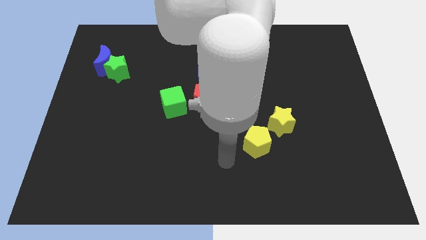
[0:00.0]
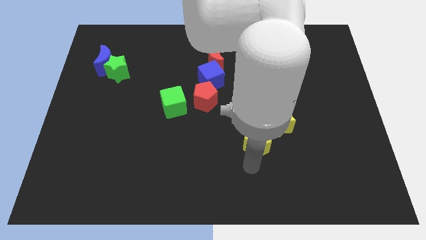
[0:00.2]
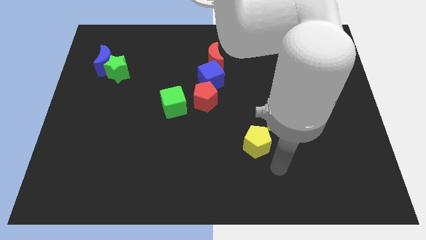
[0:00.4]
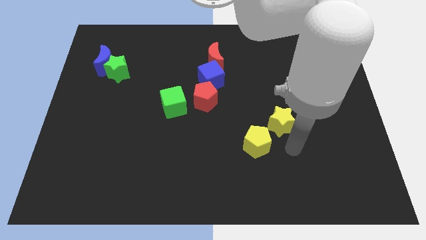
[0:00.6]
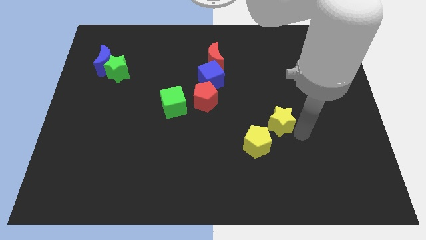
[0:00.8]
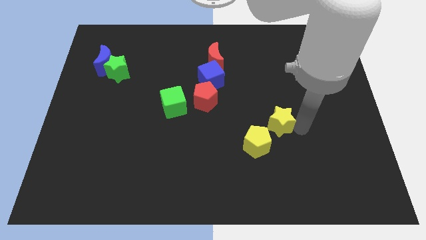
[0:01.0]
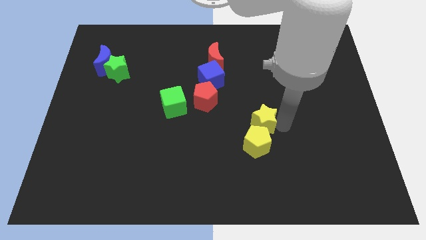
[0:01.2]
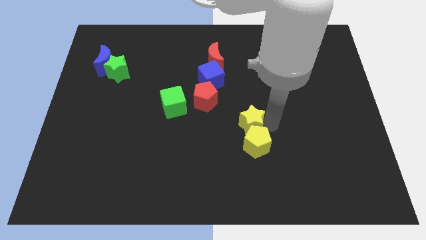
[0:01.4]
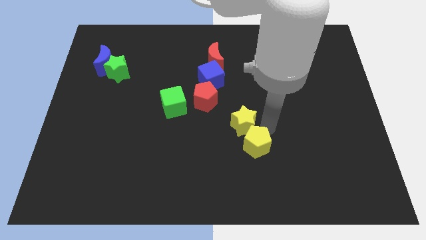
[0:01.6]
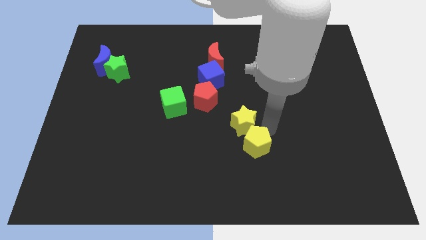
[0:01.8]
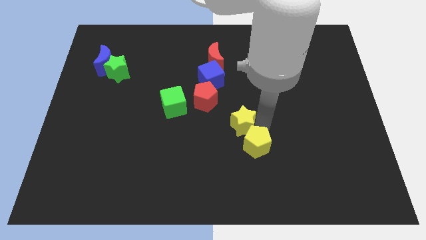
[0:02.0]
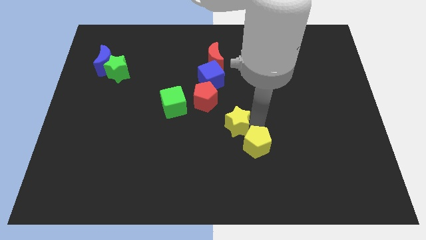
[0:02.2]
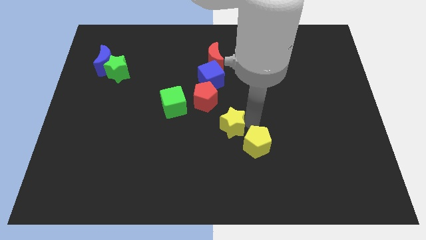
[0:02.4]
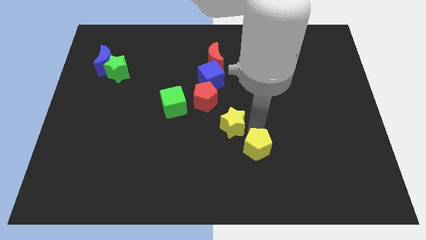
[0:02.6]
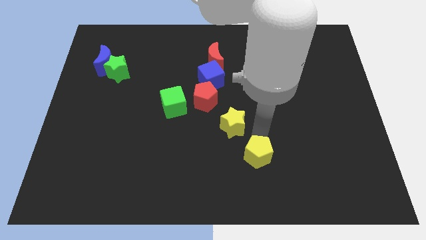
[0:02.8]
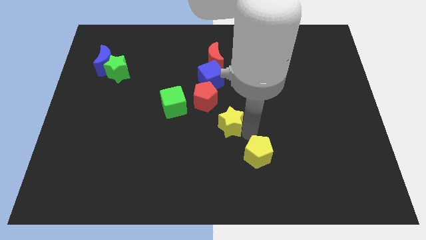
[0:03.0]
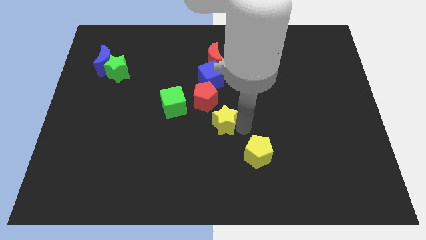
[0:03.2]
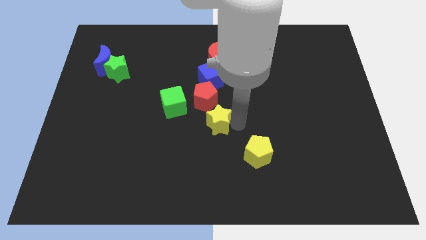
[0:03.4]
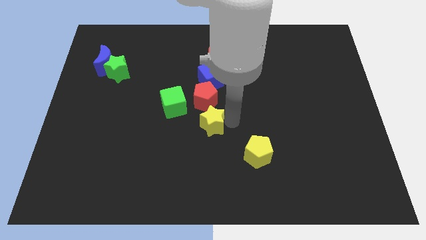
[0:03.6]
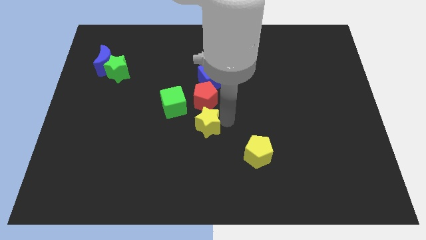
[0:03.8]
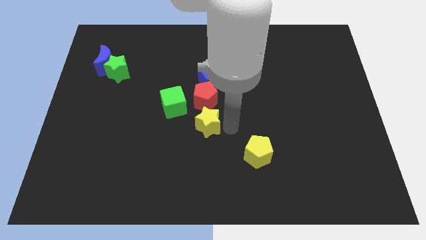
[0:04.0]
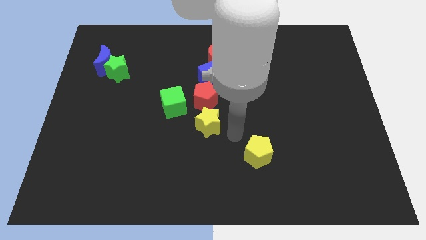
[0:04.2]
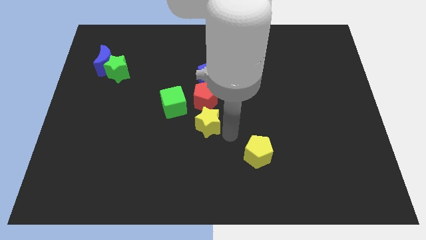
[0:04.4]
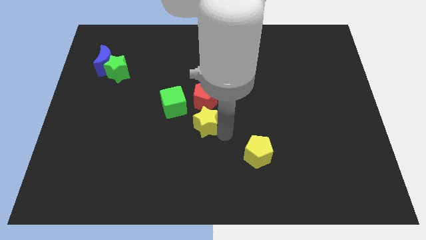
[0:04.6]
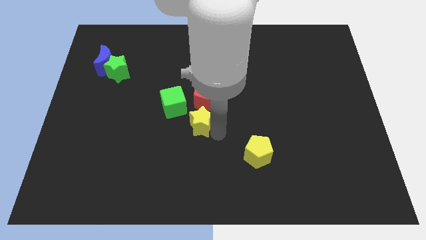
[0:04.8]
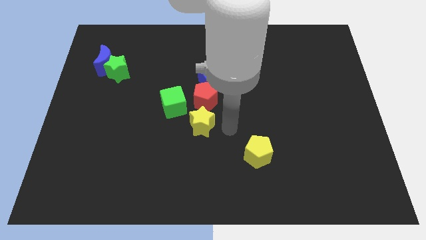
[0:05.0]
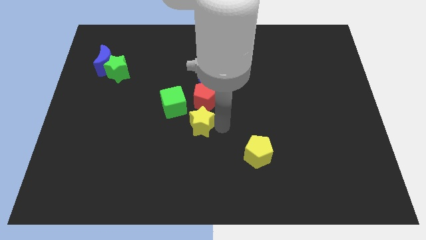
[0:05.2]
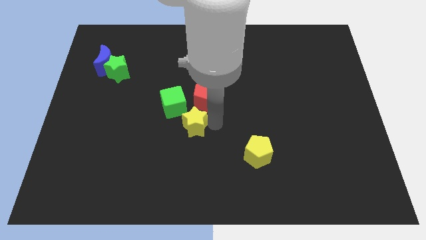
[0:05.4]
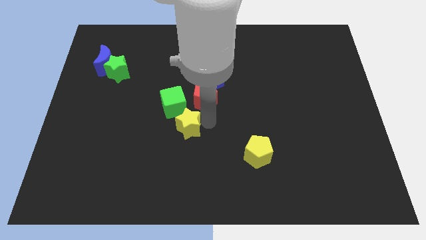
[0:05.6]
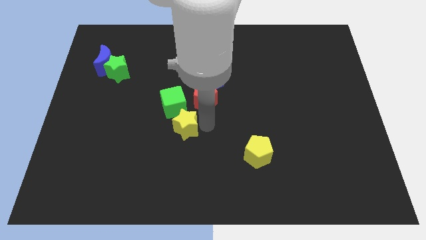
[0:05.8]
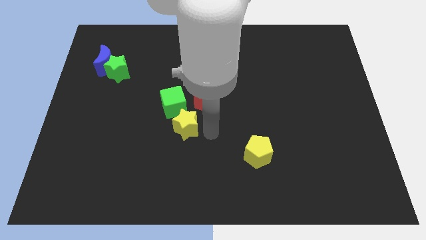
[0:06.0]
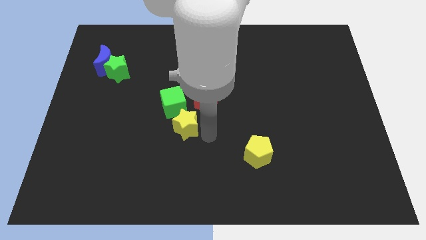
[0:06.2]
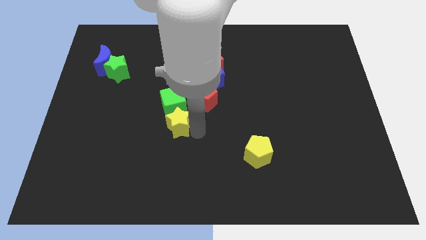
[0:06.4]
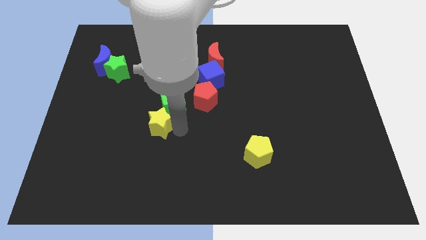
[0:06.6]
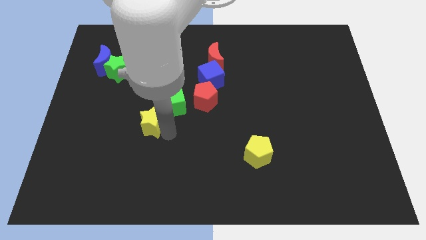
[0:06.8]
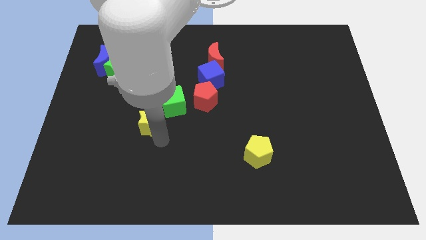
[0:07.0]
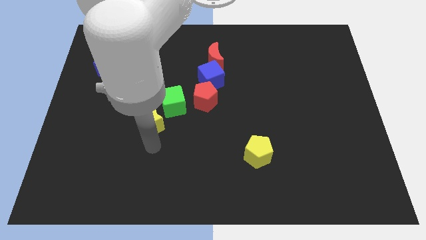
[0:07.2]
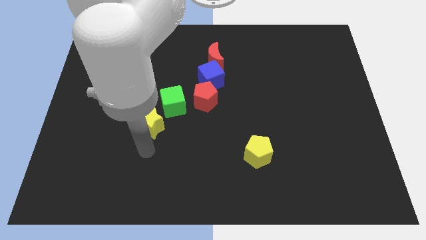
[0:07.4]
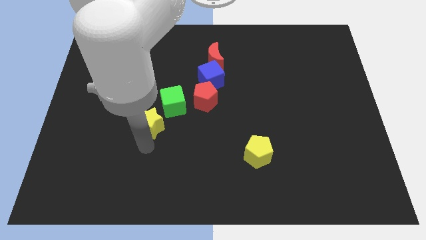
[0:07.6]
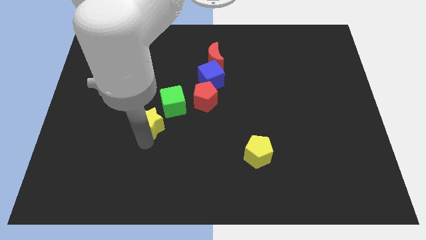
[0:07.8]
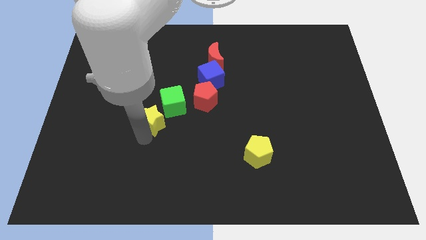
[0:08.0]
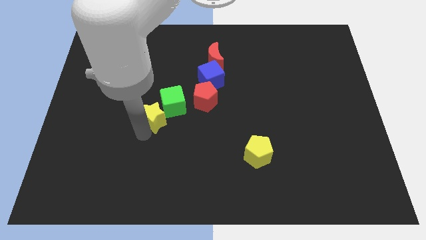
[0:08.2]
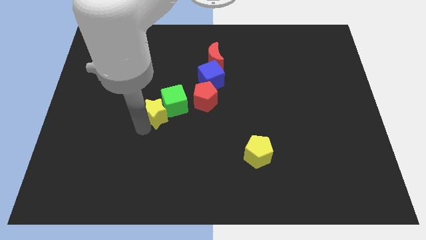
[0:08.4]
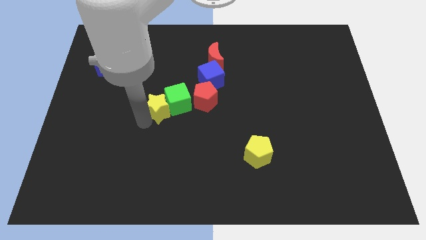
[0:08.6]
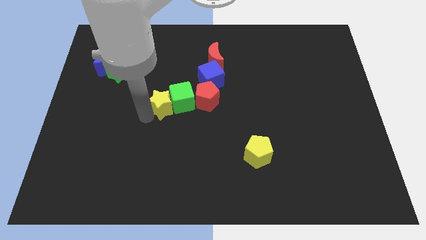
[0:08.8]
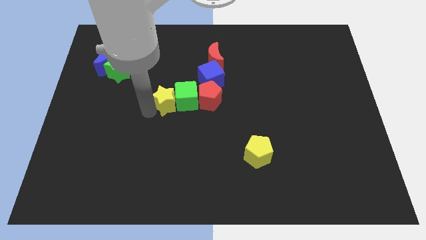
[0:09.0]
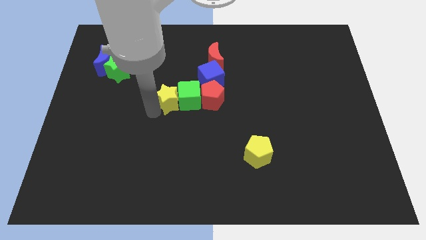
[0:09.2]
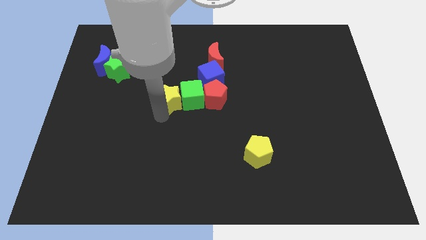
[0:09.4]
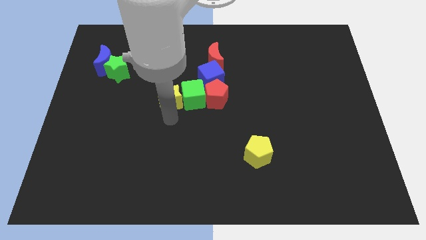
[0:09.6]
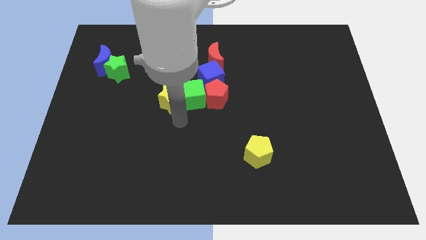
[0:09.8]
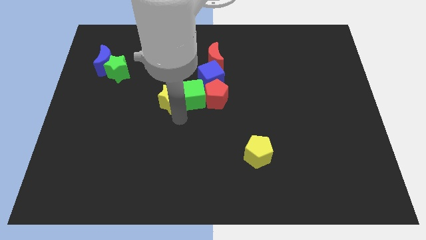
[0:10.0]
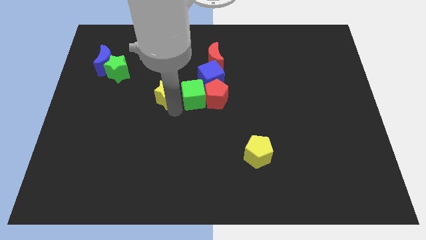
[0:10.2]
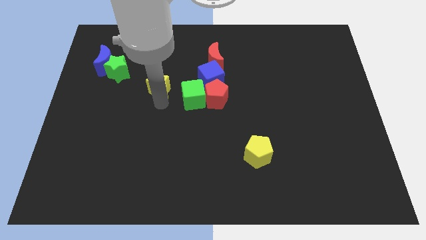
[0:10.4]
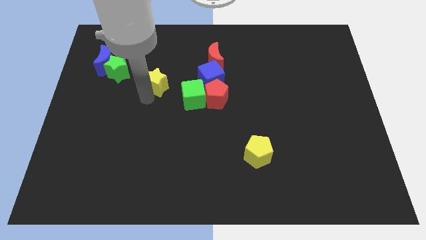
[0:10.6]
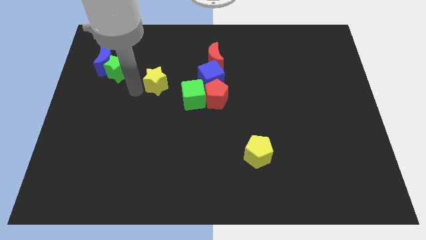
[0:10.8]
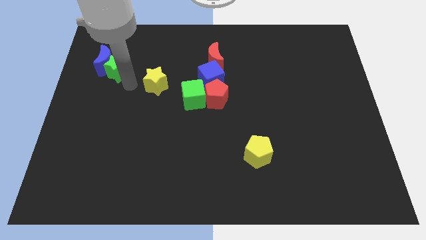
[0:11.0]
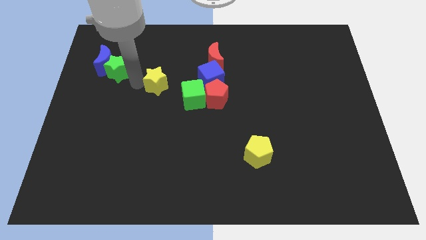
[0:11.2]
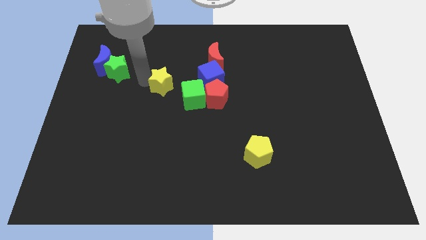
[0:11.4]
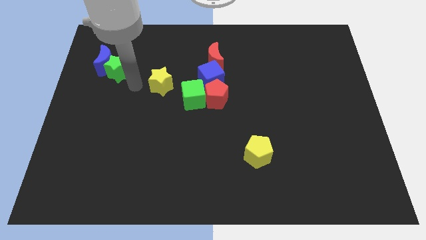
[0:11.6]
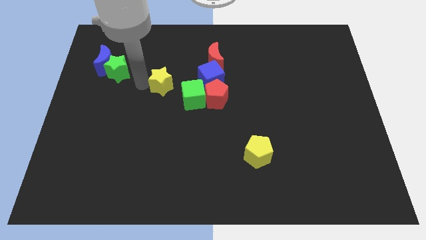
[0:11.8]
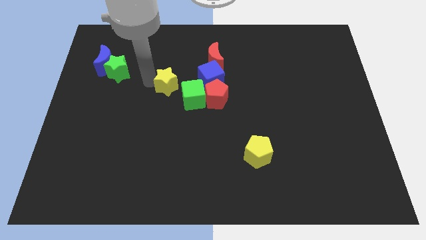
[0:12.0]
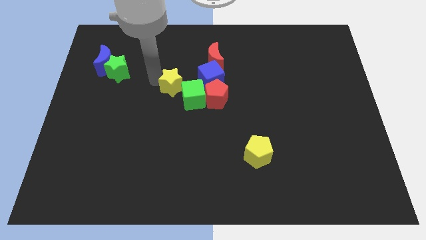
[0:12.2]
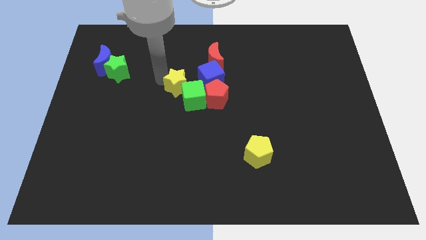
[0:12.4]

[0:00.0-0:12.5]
slide the yellow star to the top left of the red pentagon

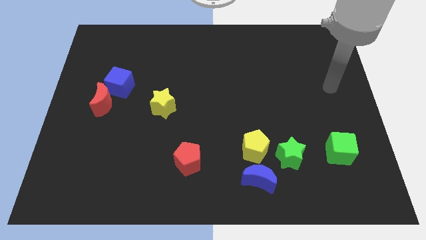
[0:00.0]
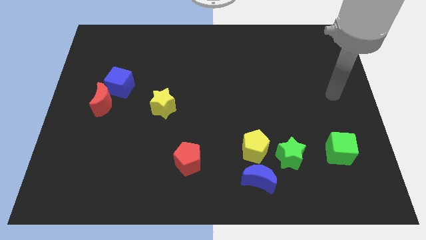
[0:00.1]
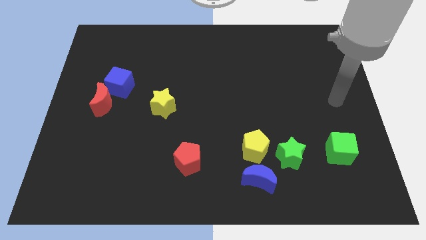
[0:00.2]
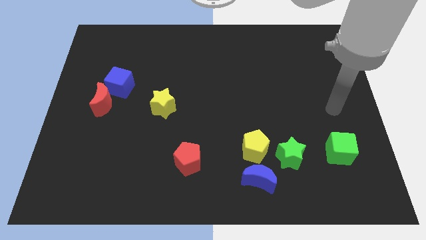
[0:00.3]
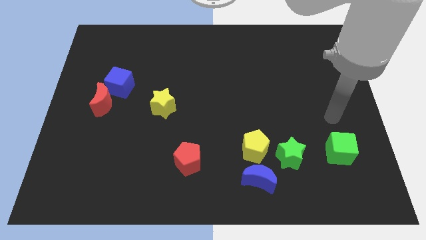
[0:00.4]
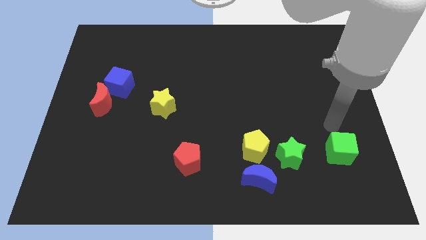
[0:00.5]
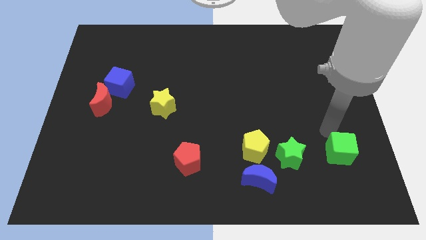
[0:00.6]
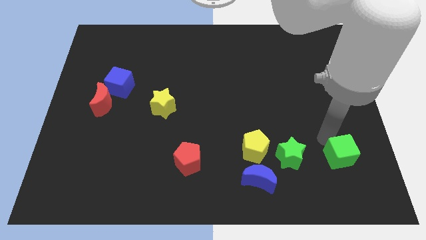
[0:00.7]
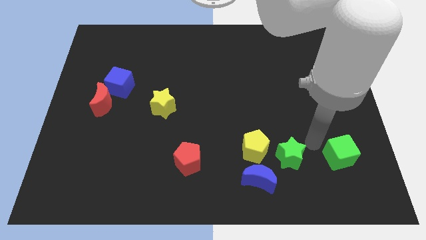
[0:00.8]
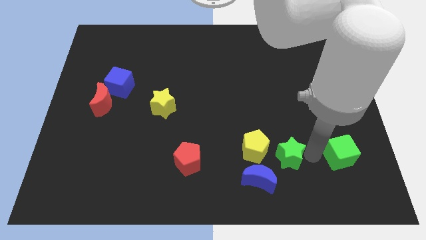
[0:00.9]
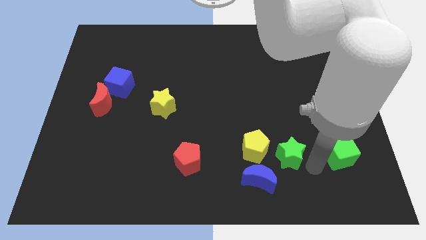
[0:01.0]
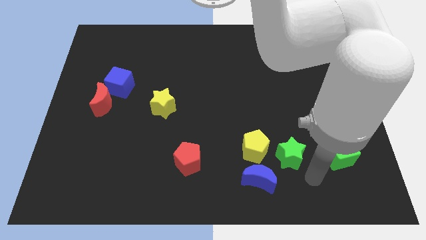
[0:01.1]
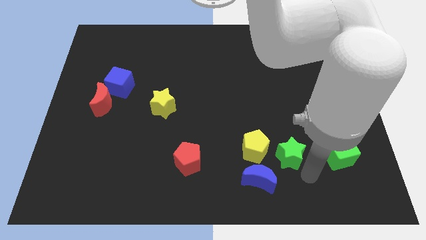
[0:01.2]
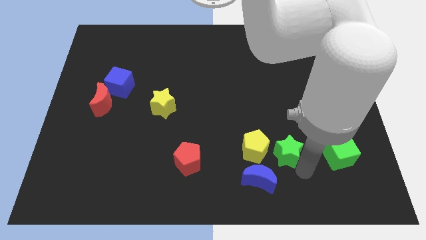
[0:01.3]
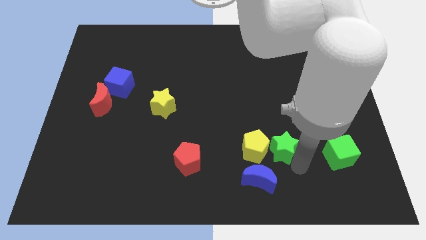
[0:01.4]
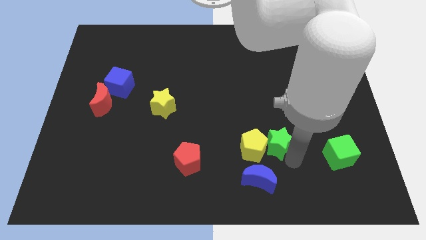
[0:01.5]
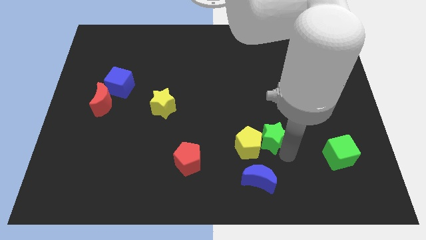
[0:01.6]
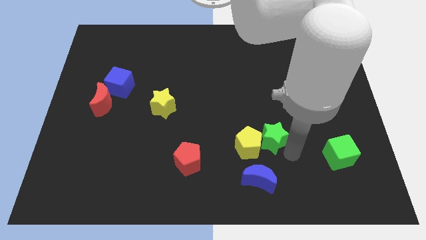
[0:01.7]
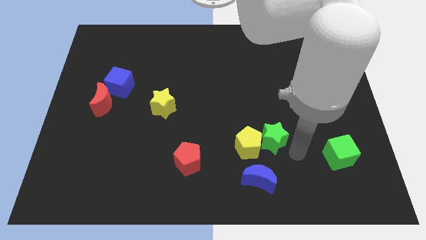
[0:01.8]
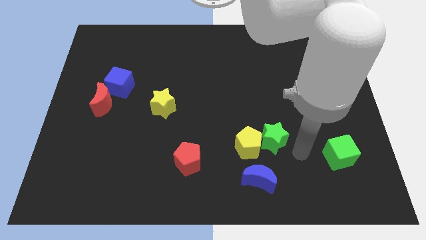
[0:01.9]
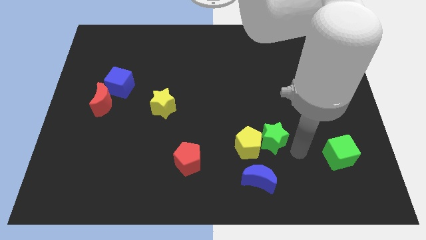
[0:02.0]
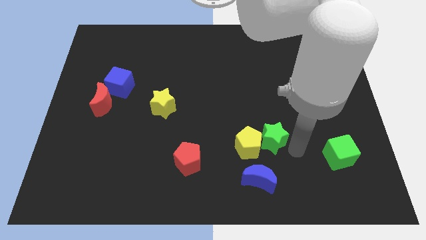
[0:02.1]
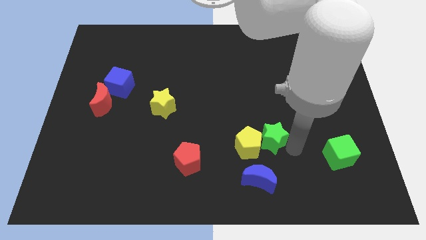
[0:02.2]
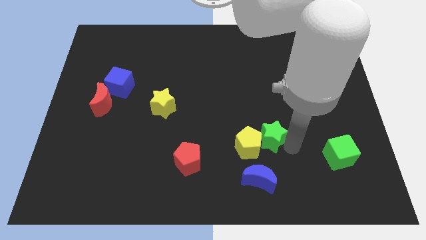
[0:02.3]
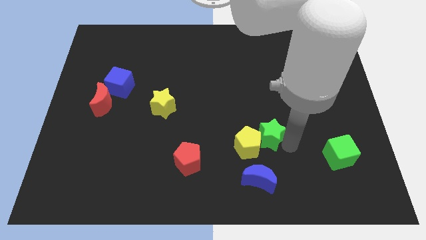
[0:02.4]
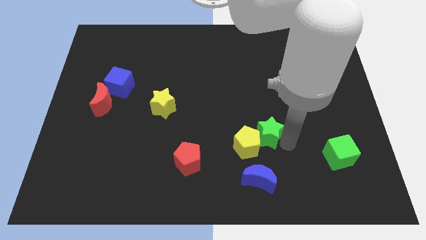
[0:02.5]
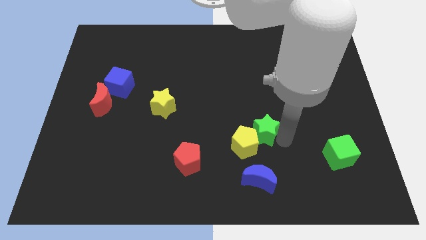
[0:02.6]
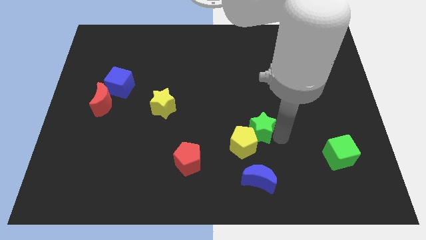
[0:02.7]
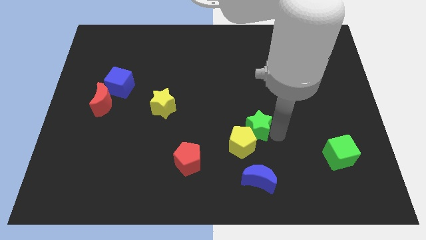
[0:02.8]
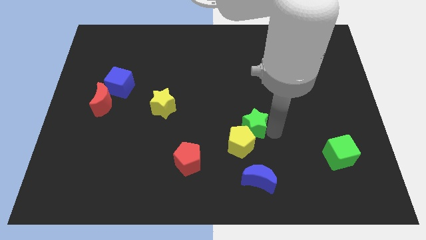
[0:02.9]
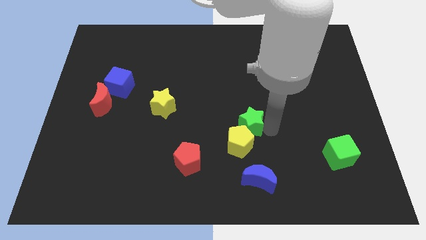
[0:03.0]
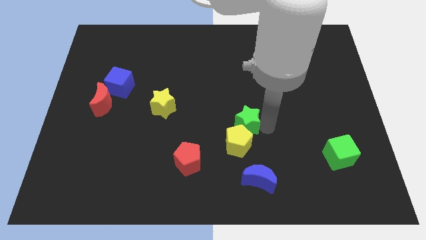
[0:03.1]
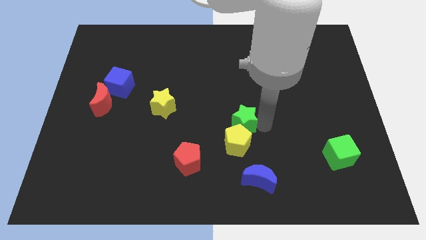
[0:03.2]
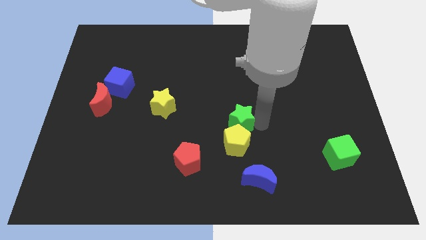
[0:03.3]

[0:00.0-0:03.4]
move the green star to the top left side of the yellow pentagon
